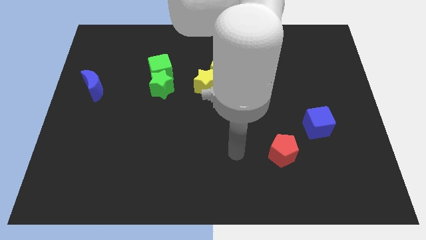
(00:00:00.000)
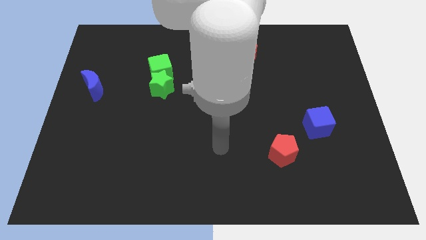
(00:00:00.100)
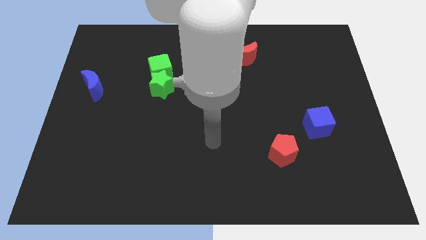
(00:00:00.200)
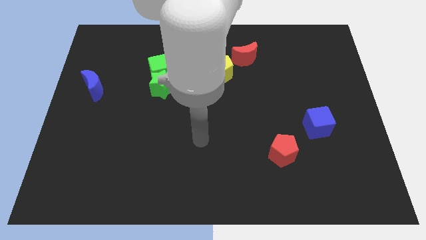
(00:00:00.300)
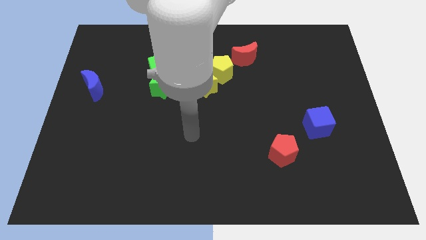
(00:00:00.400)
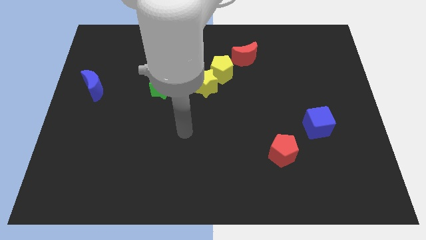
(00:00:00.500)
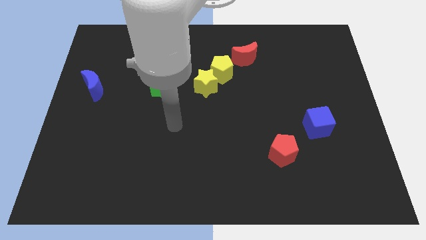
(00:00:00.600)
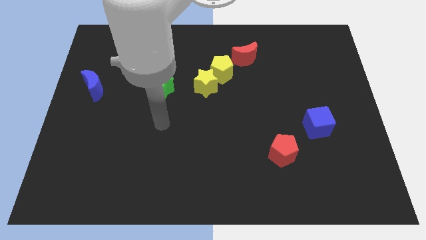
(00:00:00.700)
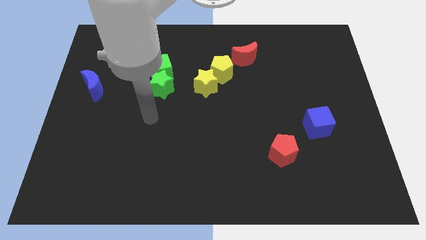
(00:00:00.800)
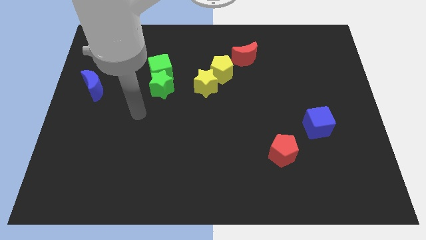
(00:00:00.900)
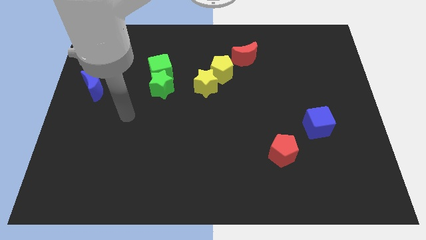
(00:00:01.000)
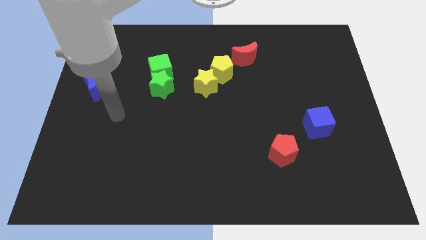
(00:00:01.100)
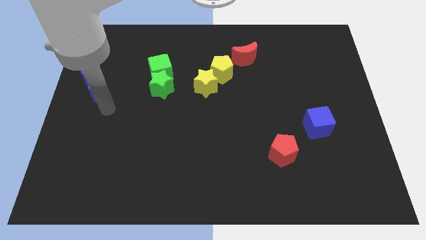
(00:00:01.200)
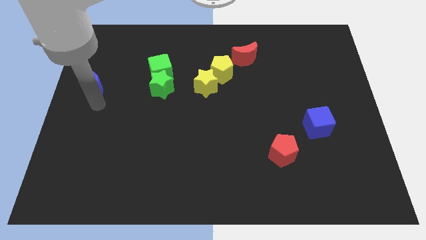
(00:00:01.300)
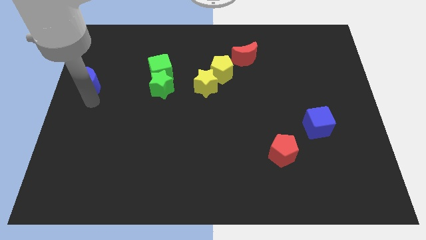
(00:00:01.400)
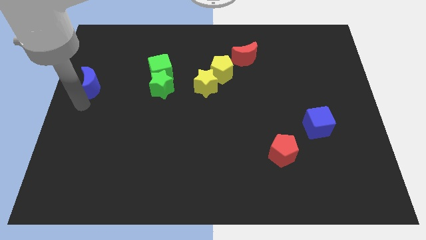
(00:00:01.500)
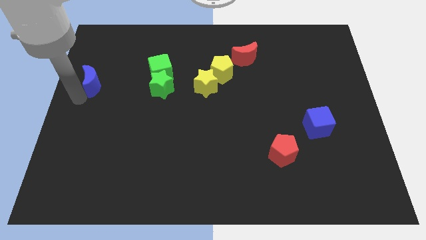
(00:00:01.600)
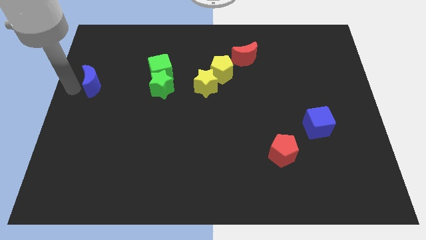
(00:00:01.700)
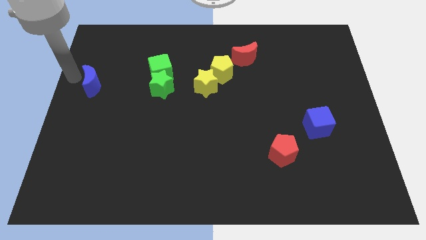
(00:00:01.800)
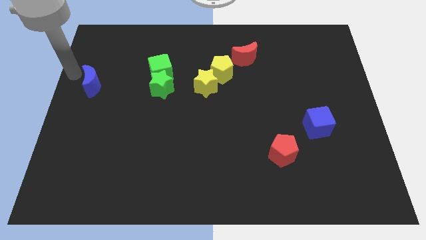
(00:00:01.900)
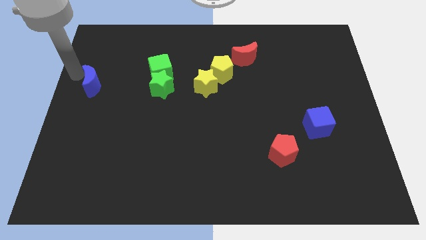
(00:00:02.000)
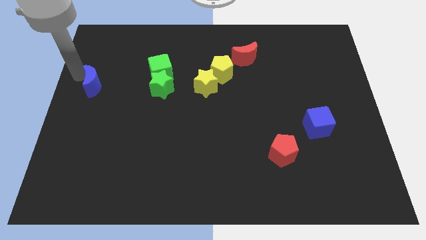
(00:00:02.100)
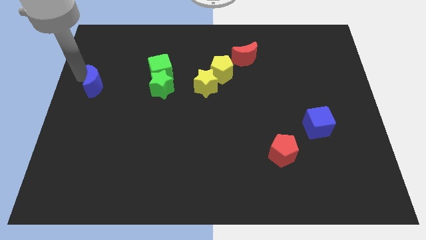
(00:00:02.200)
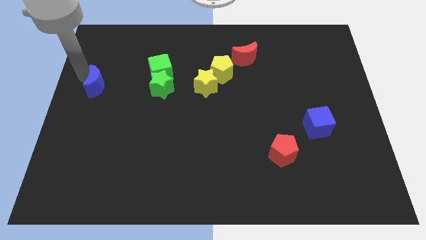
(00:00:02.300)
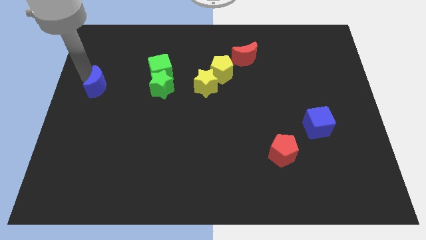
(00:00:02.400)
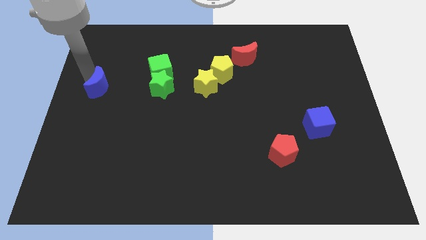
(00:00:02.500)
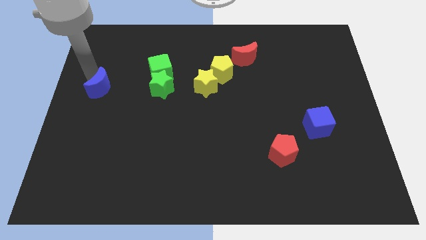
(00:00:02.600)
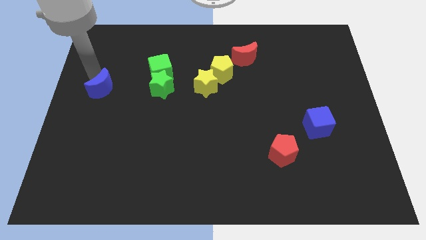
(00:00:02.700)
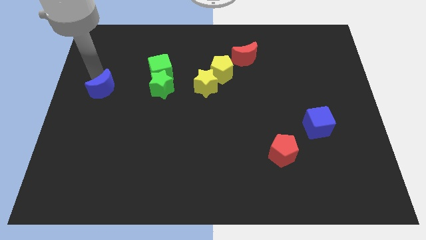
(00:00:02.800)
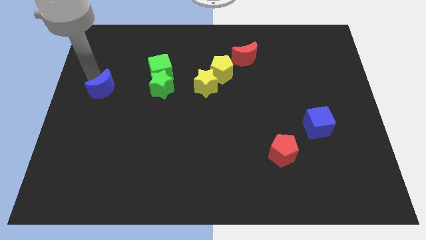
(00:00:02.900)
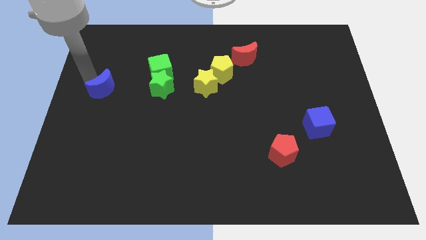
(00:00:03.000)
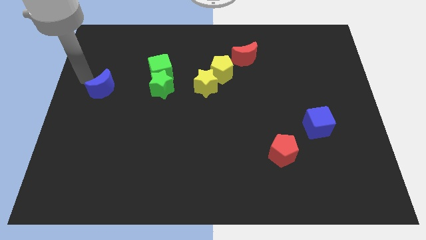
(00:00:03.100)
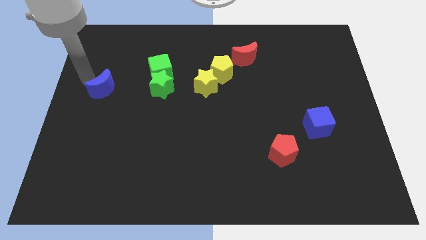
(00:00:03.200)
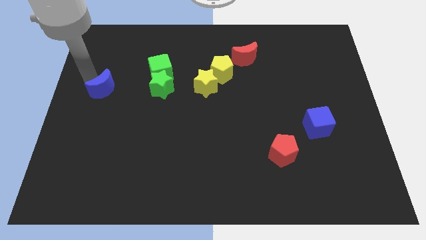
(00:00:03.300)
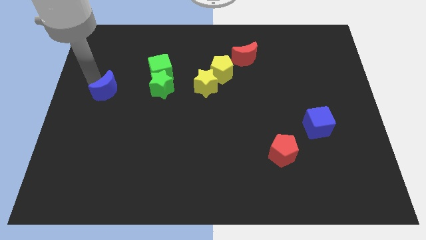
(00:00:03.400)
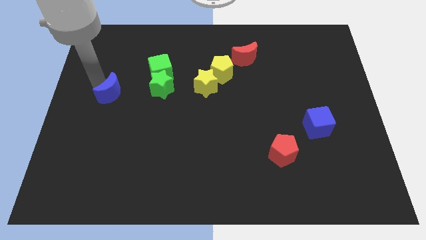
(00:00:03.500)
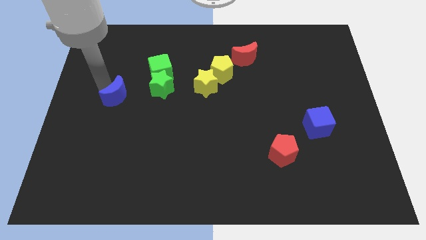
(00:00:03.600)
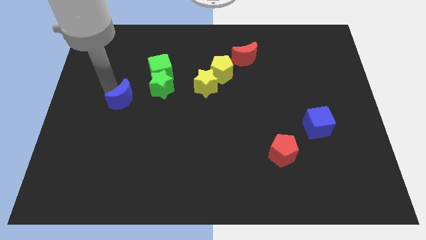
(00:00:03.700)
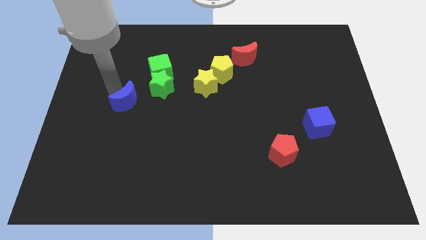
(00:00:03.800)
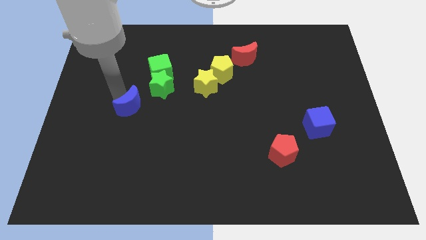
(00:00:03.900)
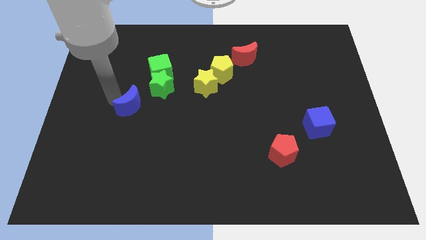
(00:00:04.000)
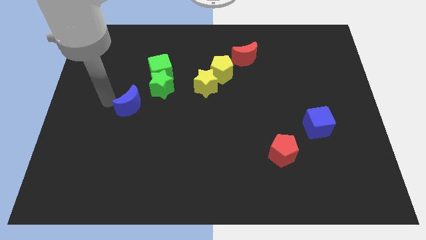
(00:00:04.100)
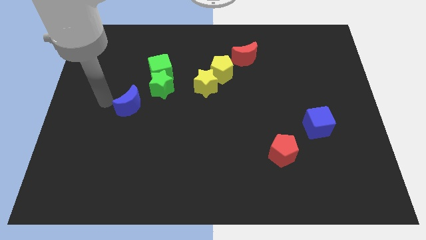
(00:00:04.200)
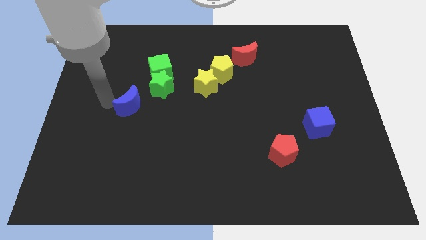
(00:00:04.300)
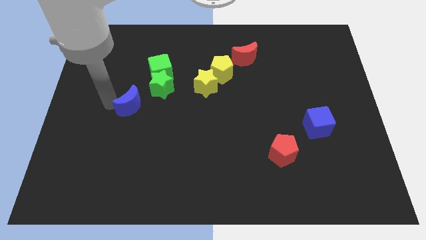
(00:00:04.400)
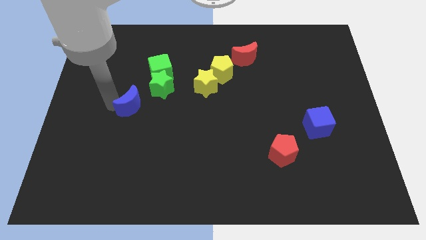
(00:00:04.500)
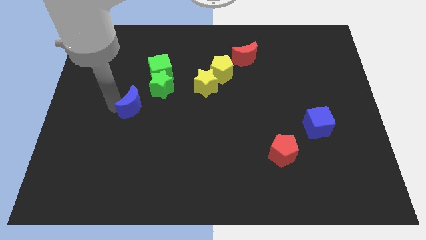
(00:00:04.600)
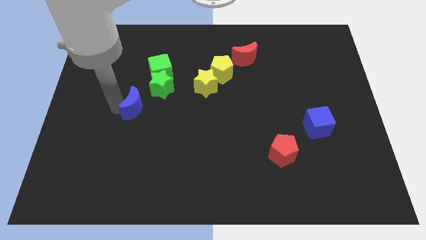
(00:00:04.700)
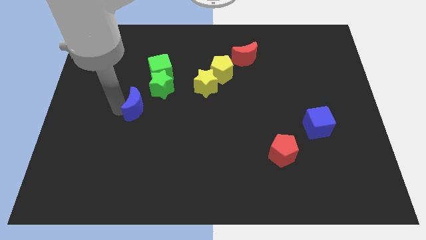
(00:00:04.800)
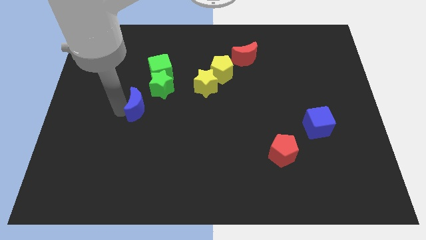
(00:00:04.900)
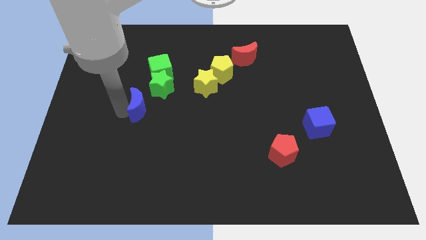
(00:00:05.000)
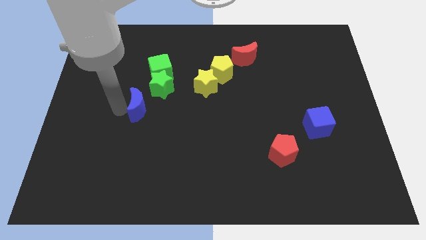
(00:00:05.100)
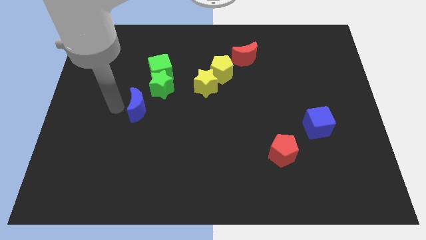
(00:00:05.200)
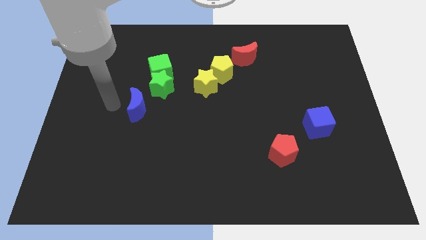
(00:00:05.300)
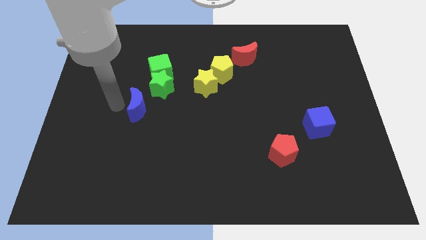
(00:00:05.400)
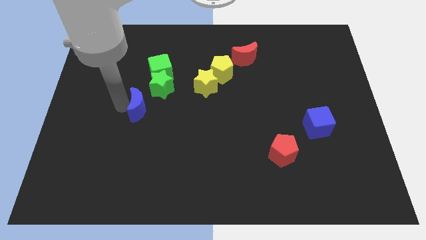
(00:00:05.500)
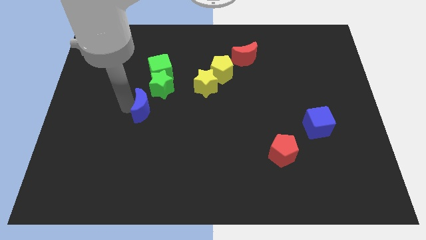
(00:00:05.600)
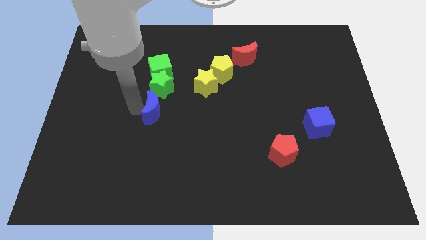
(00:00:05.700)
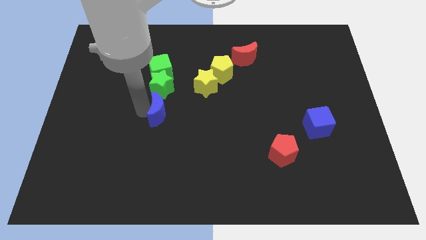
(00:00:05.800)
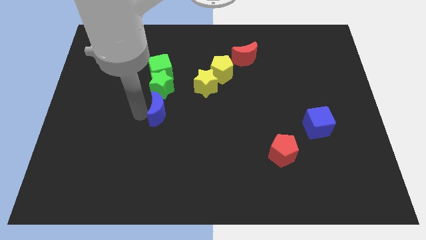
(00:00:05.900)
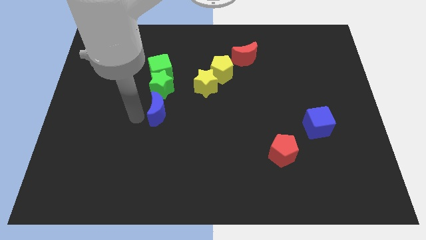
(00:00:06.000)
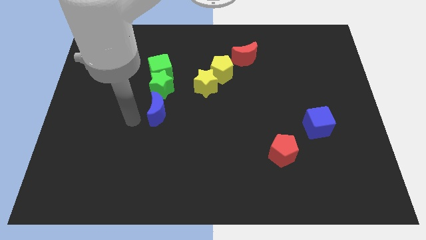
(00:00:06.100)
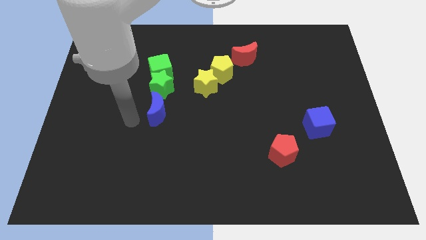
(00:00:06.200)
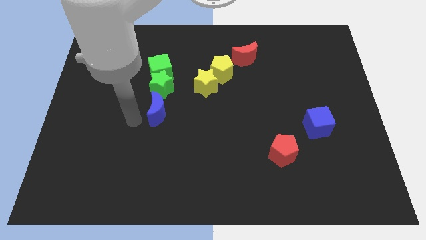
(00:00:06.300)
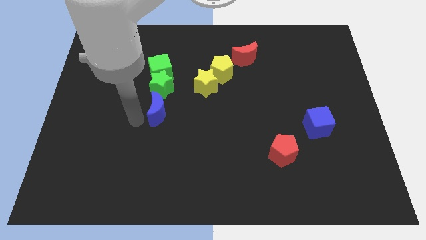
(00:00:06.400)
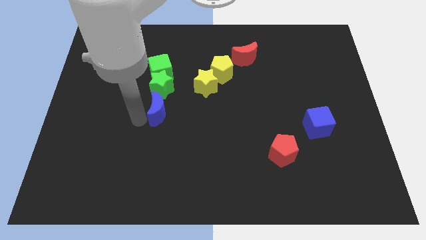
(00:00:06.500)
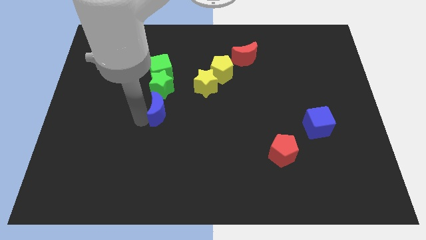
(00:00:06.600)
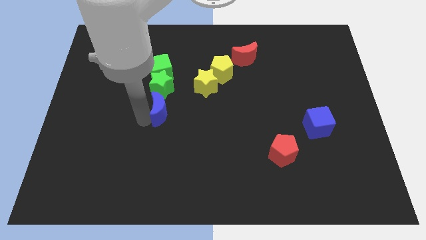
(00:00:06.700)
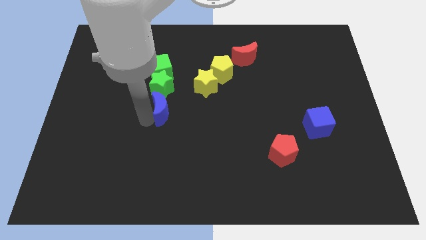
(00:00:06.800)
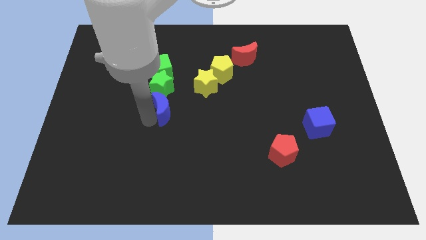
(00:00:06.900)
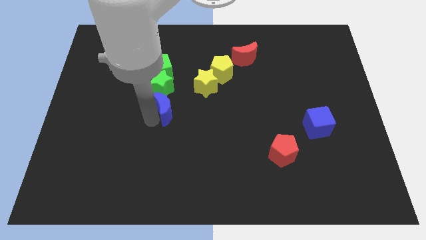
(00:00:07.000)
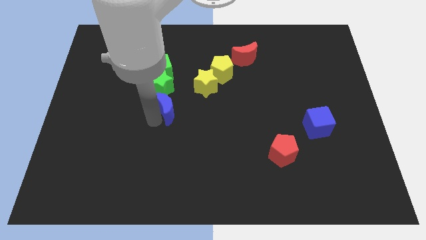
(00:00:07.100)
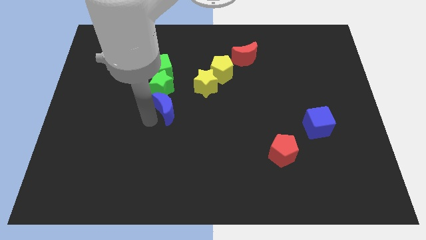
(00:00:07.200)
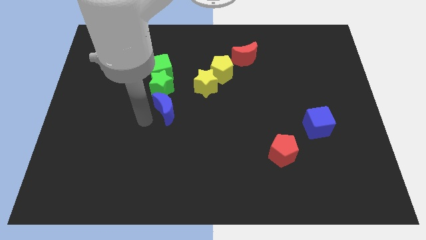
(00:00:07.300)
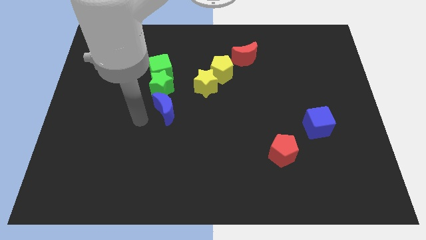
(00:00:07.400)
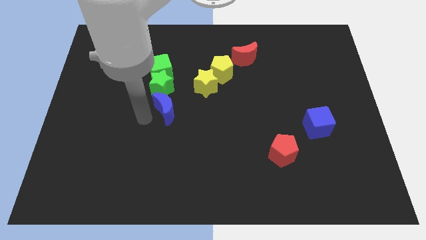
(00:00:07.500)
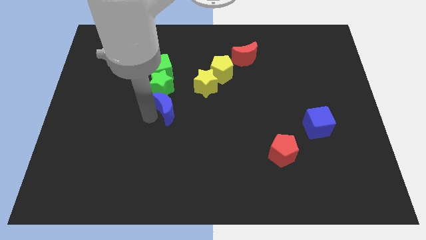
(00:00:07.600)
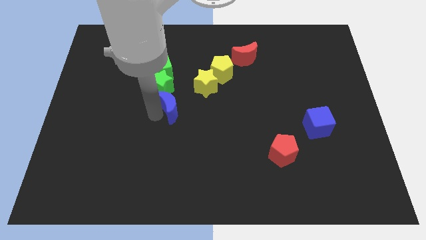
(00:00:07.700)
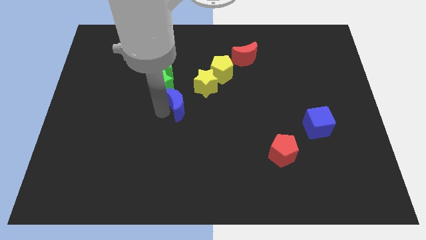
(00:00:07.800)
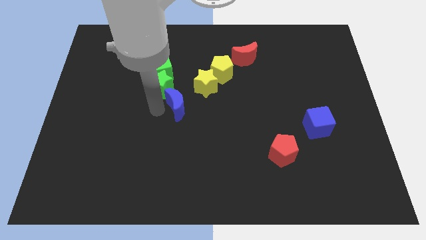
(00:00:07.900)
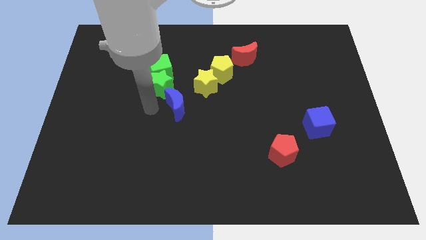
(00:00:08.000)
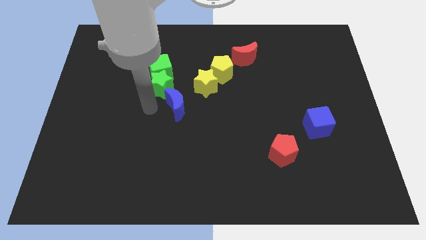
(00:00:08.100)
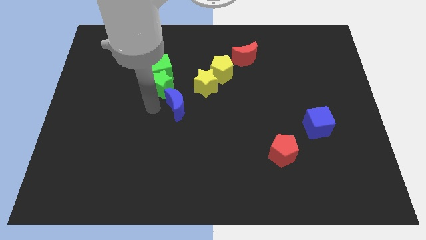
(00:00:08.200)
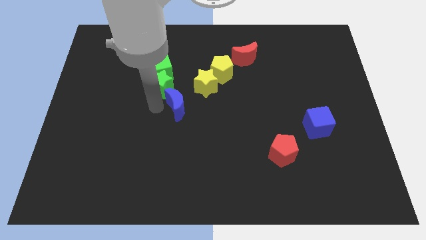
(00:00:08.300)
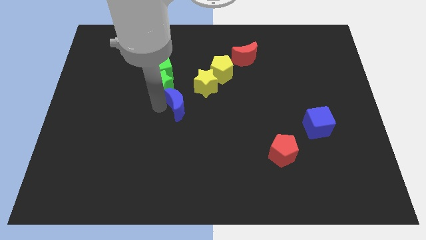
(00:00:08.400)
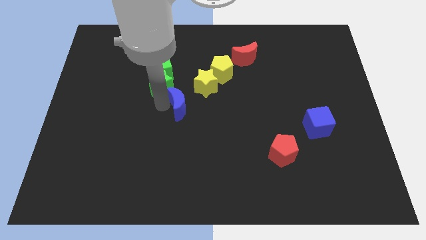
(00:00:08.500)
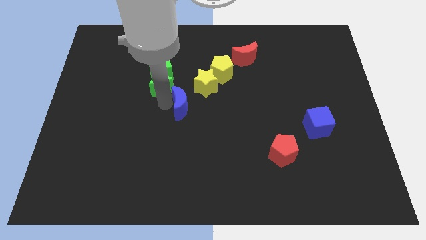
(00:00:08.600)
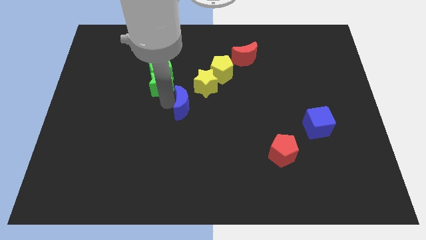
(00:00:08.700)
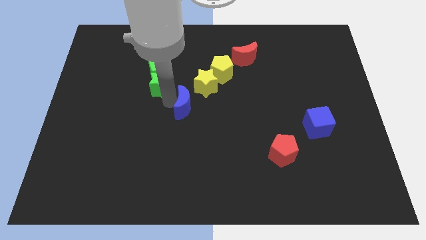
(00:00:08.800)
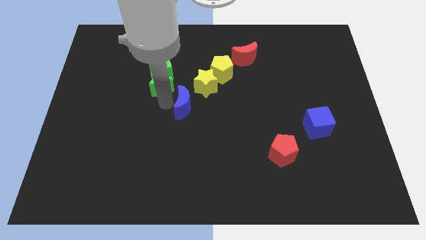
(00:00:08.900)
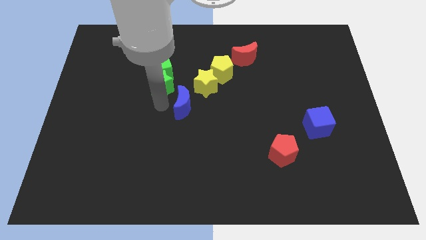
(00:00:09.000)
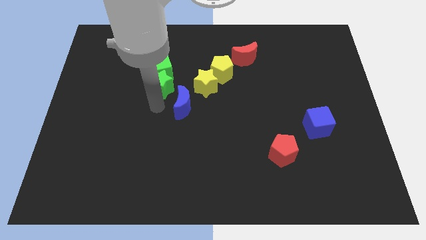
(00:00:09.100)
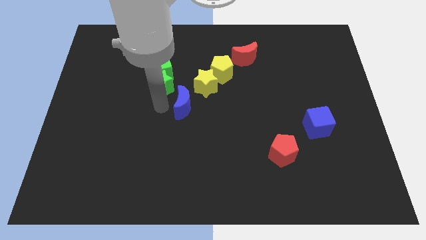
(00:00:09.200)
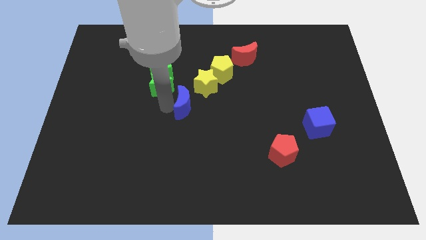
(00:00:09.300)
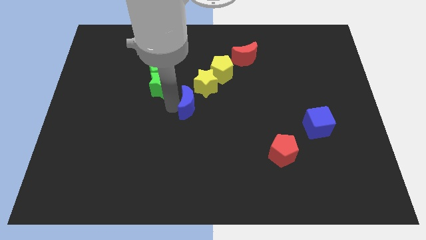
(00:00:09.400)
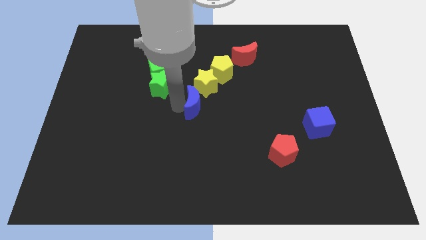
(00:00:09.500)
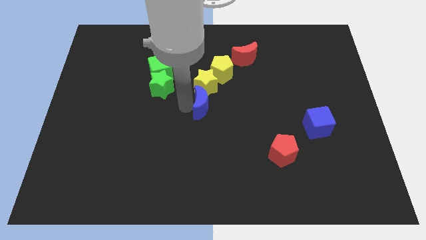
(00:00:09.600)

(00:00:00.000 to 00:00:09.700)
move the blue moon to the bottom of the yellow pentagon
